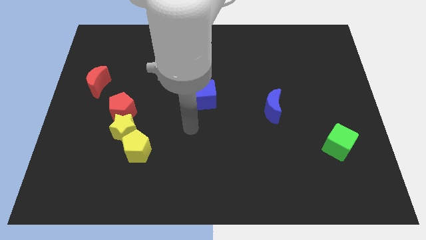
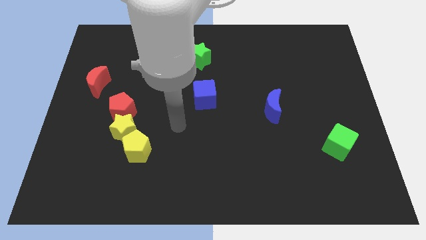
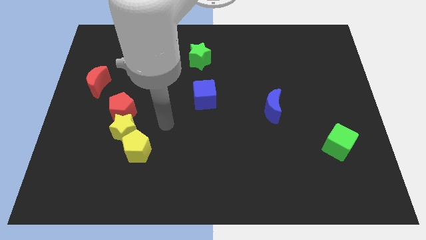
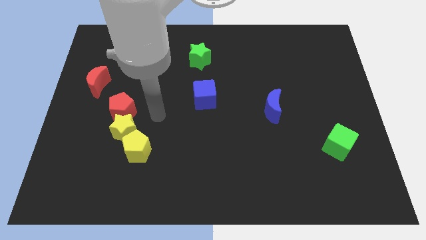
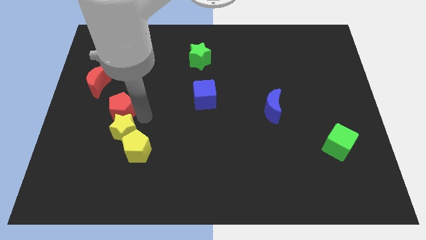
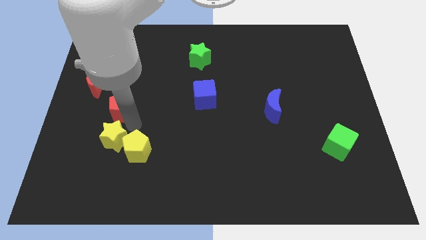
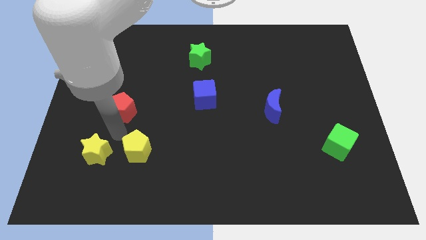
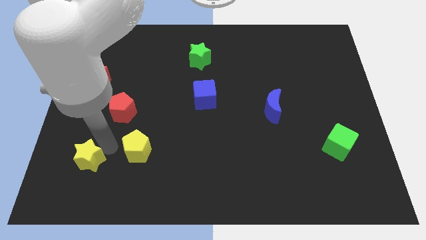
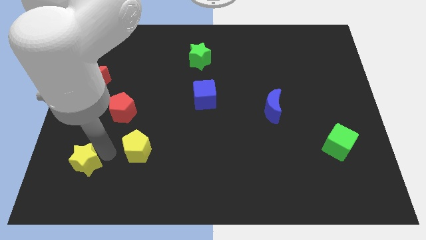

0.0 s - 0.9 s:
move the yellow pentagon away from the yellow star

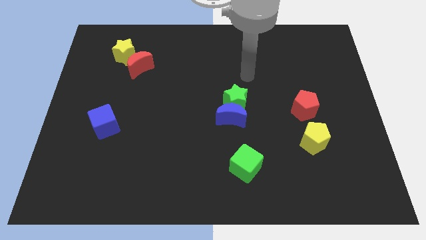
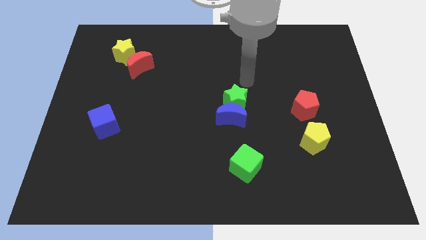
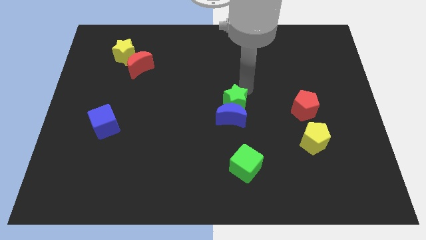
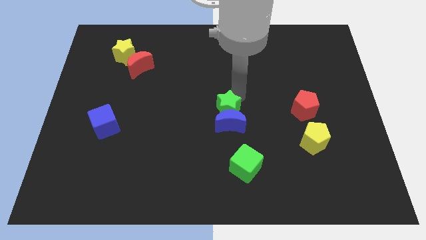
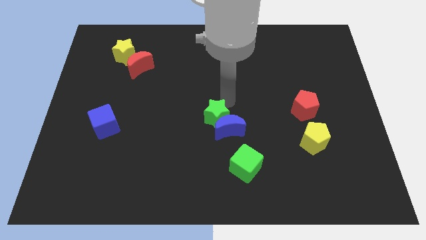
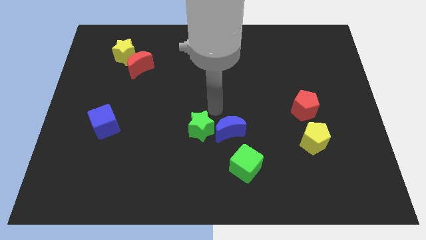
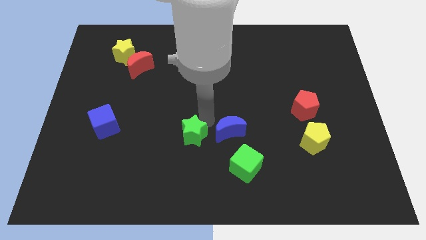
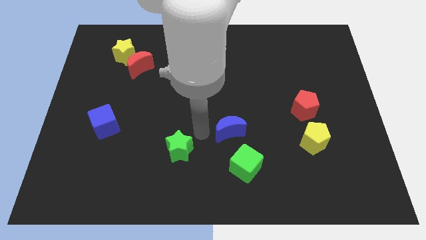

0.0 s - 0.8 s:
separate the blue moon from the green star

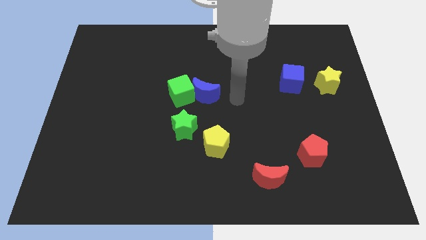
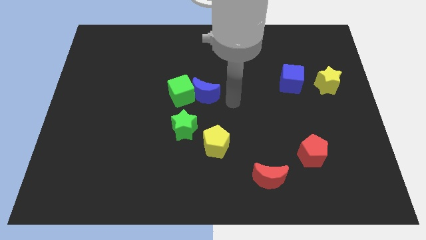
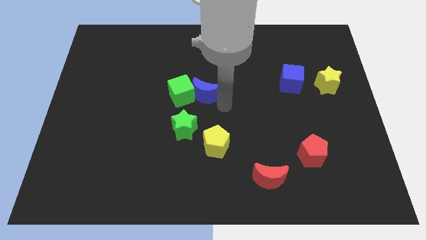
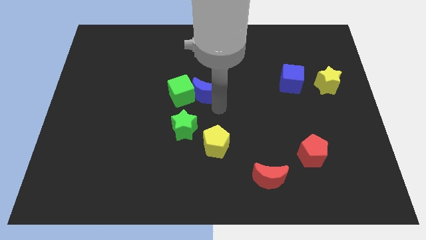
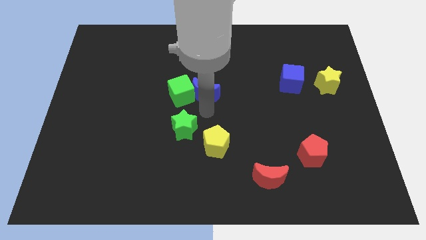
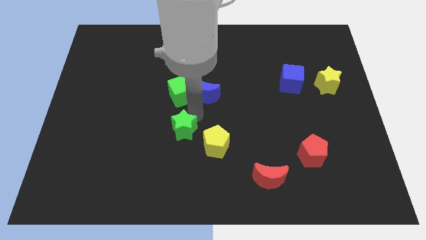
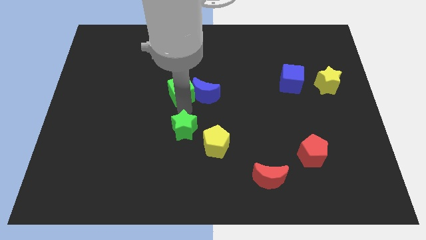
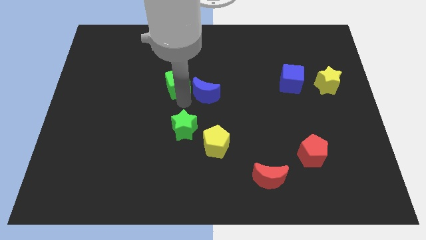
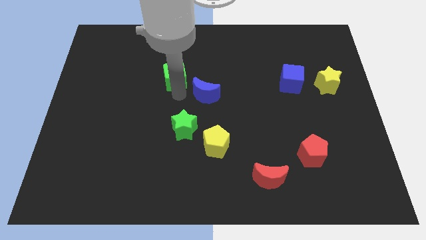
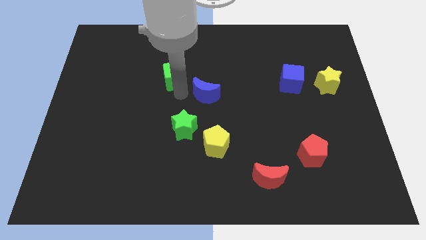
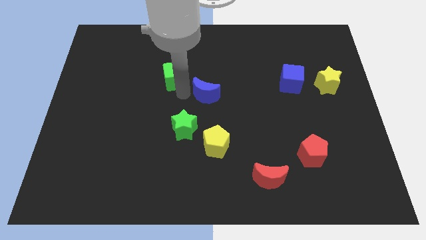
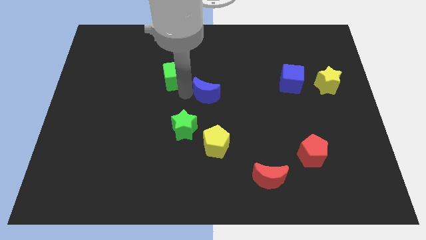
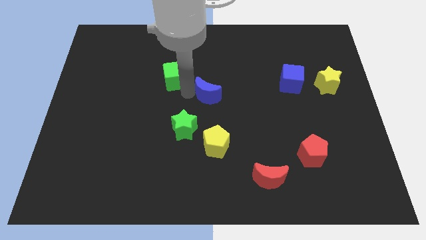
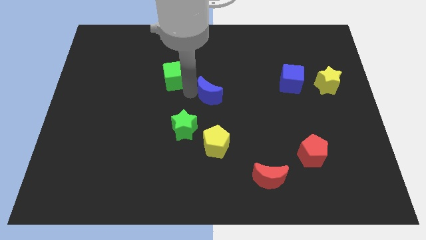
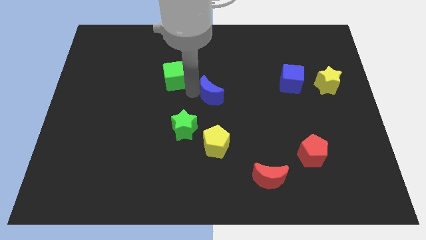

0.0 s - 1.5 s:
pull the blue moon apart from the green cube

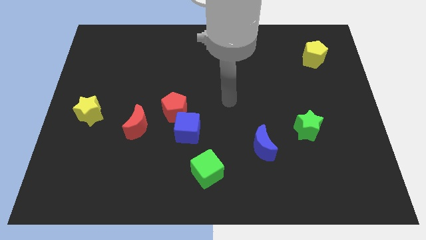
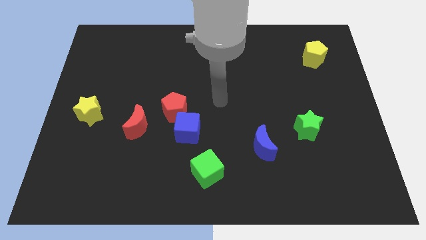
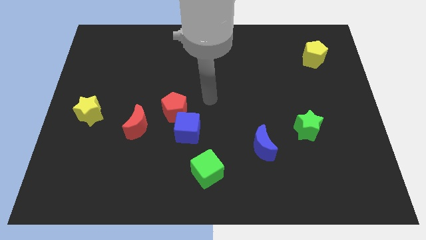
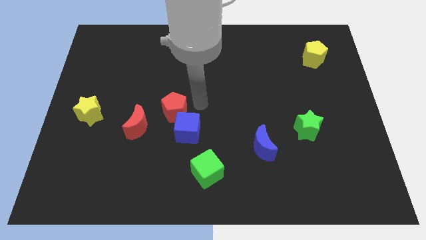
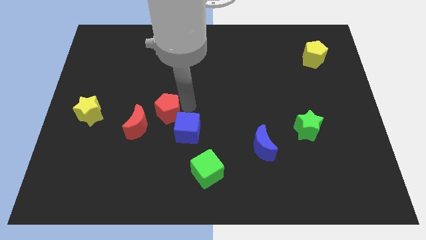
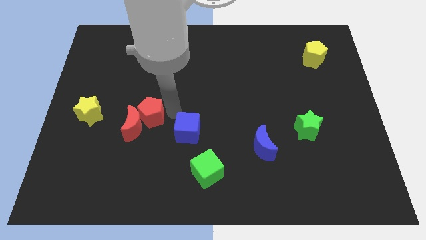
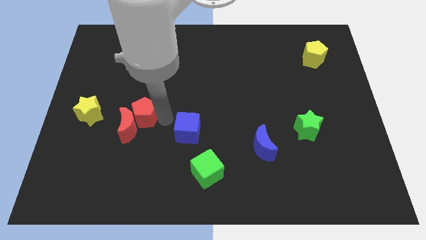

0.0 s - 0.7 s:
move the blue cube away from the red pentagon

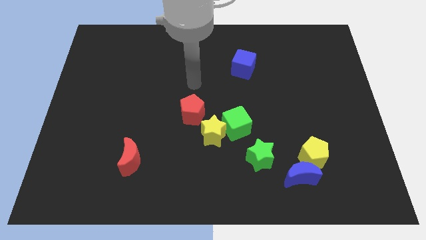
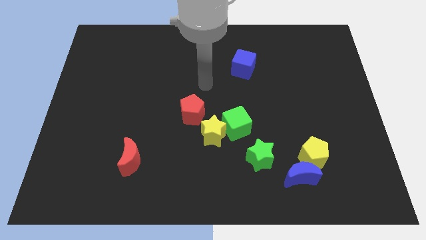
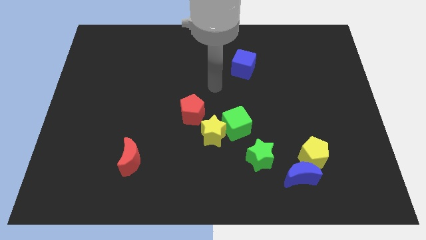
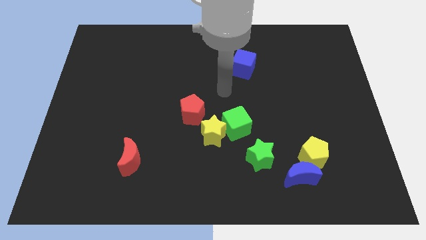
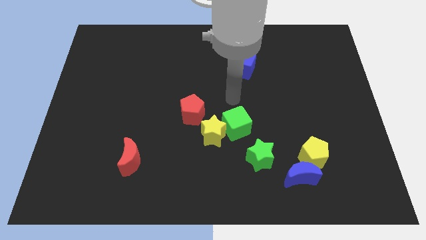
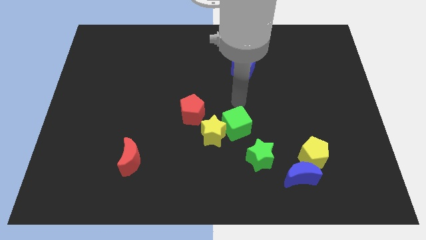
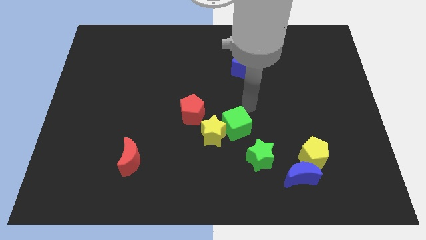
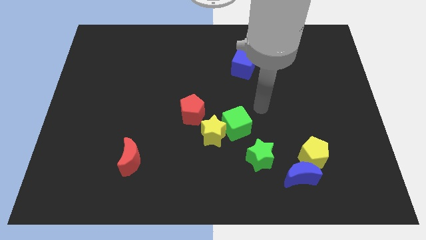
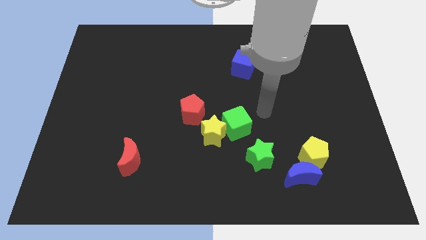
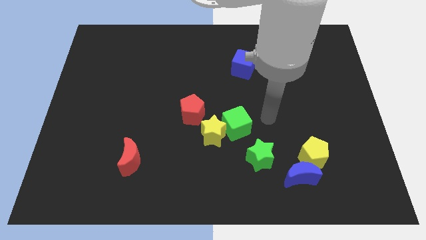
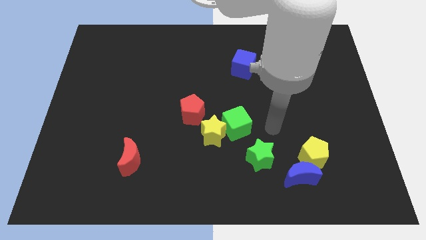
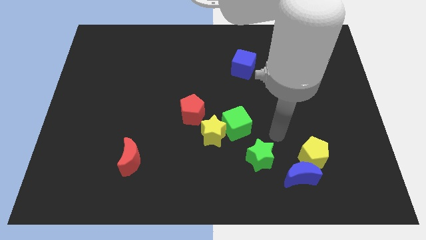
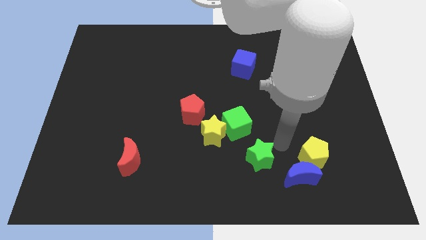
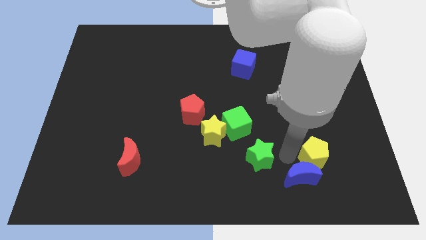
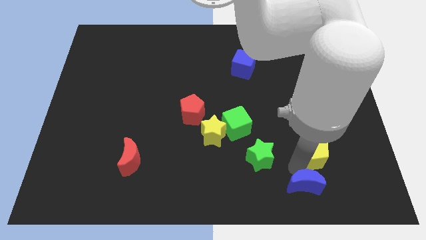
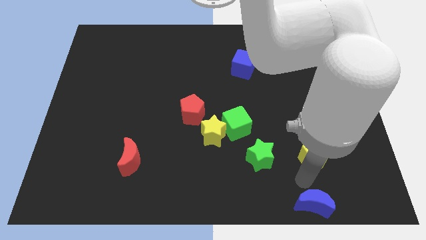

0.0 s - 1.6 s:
pull the yellow pentagon apart from the blue moon

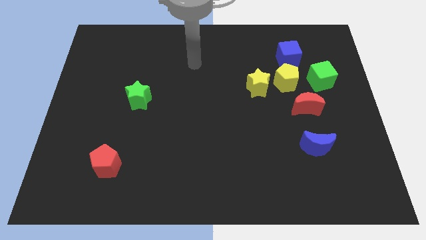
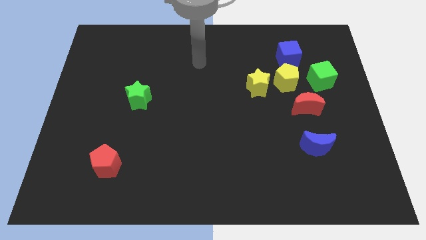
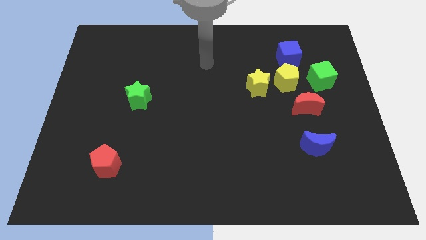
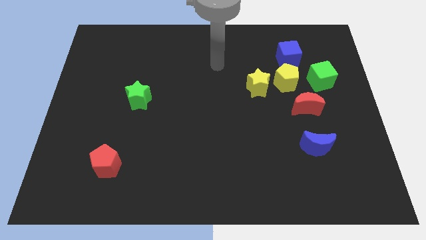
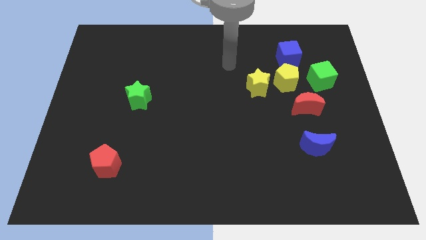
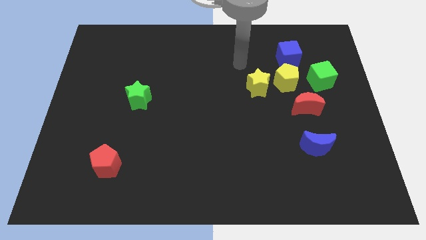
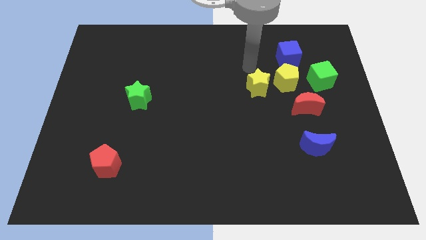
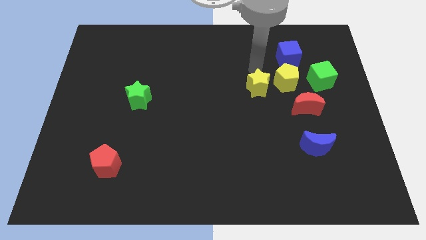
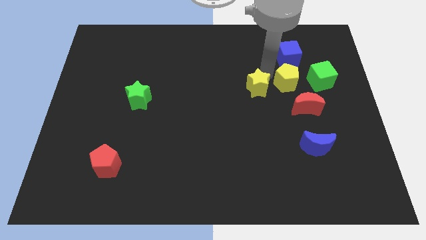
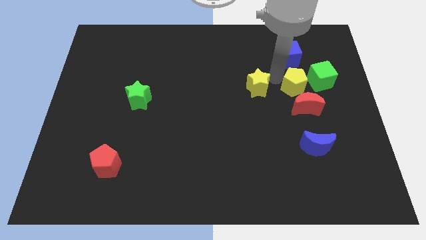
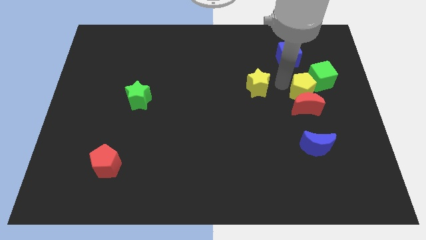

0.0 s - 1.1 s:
separate the yellow star from the yellow pentagon

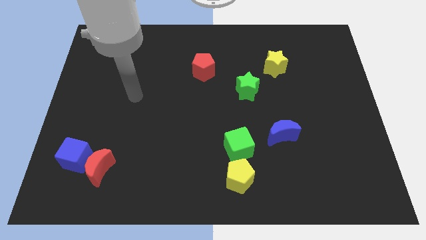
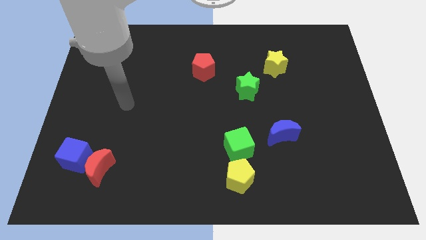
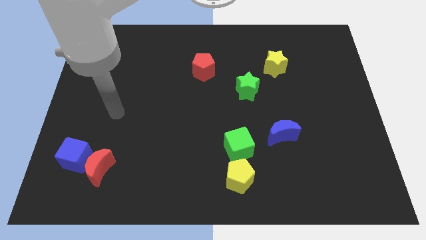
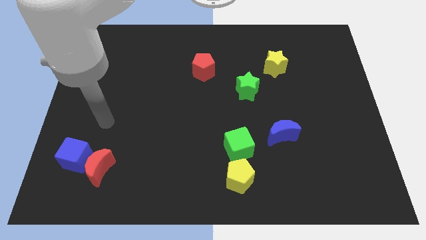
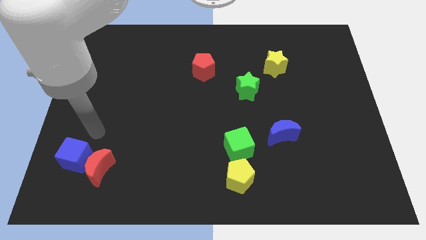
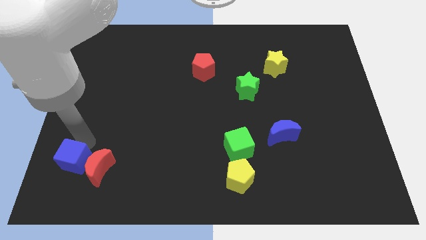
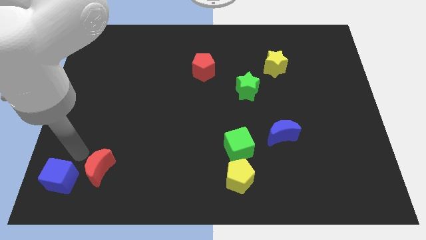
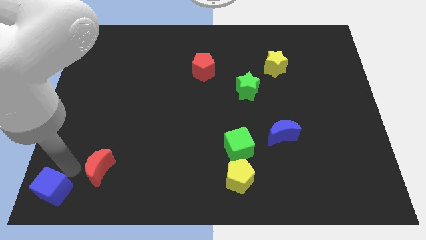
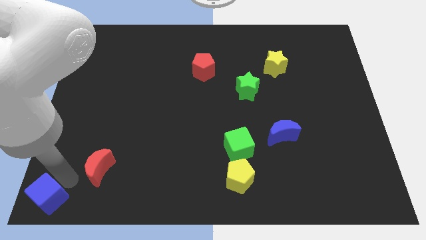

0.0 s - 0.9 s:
pull the red moon apart from the blue cube

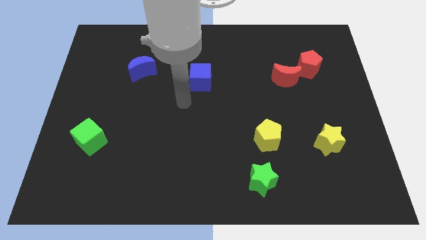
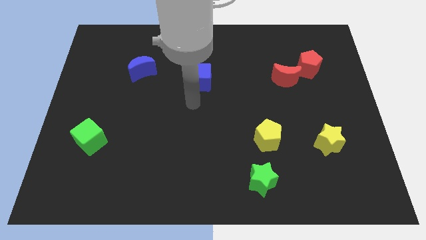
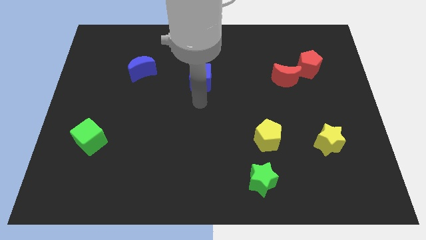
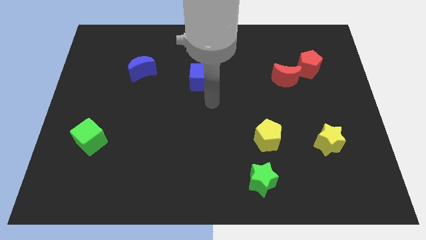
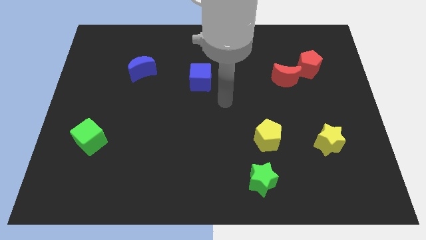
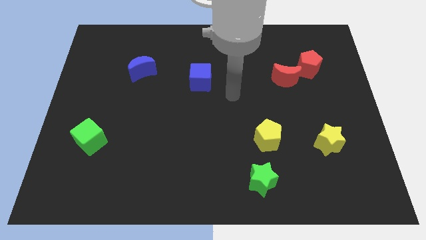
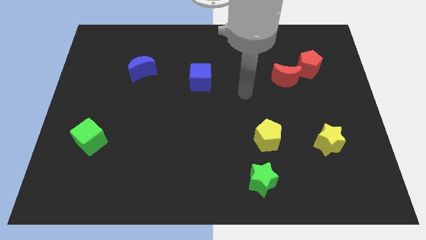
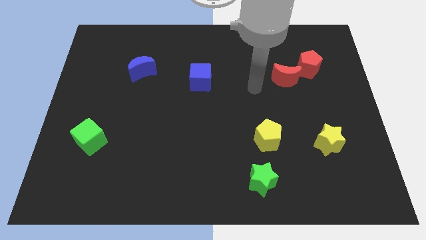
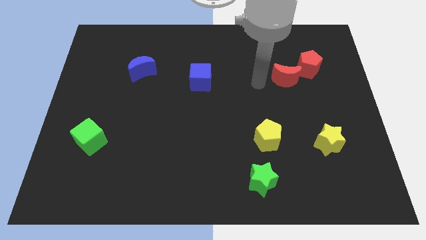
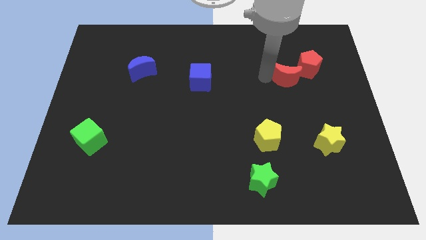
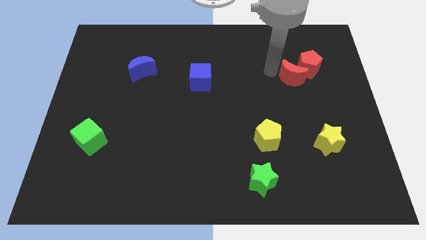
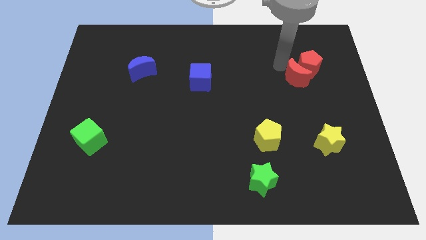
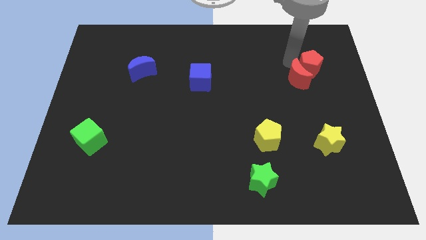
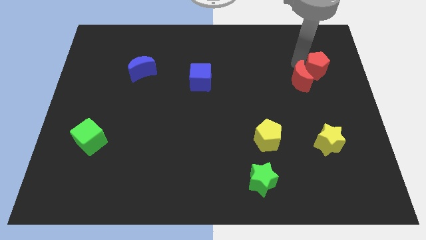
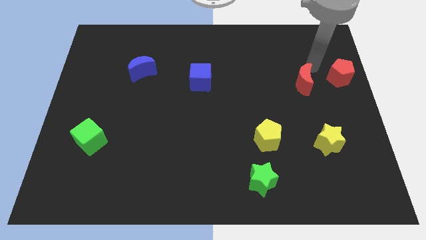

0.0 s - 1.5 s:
move the red moon away from the red pentagon

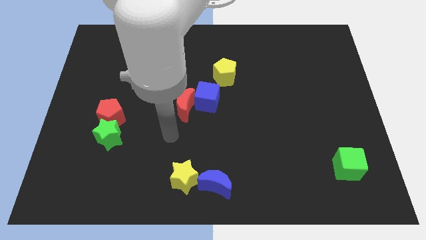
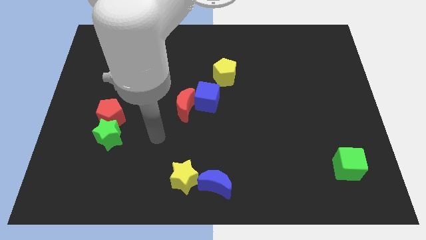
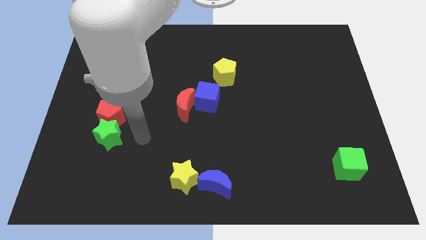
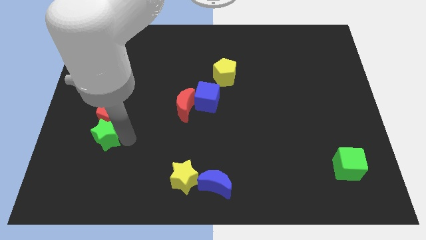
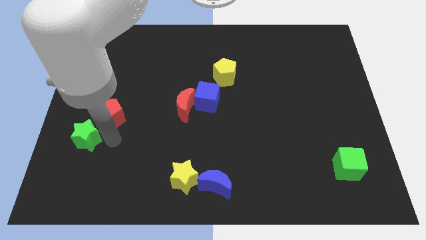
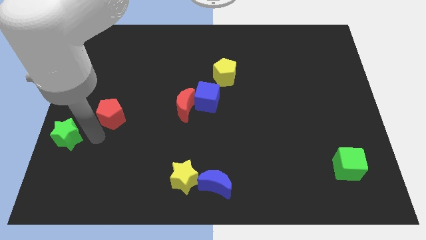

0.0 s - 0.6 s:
separate the red pentagon from the green star
